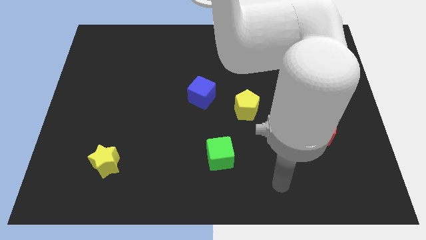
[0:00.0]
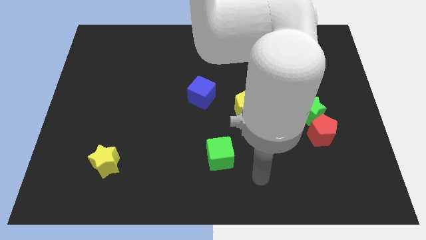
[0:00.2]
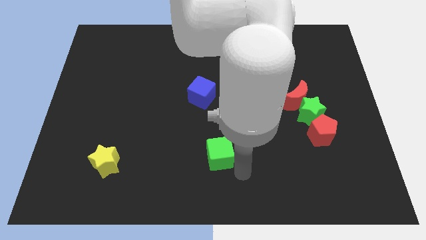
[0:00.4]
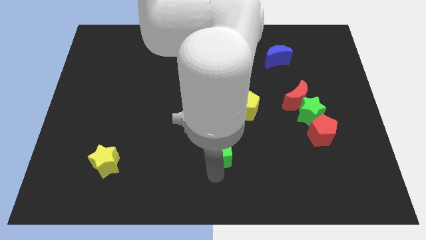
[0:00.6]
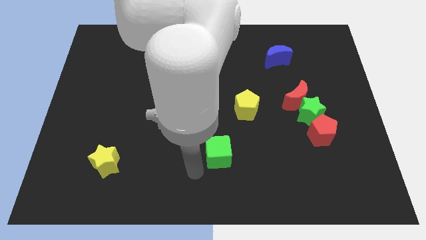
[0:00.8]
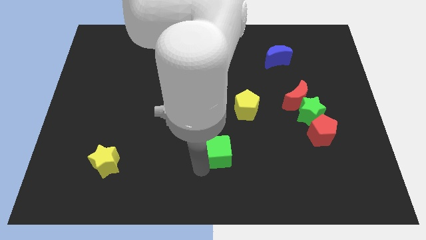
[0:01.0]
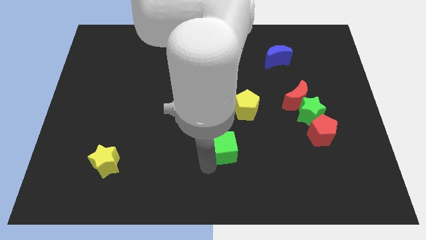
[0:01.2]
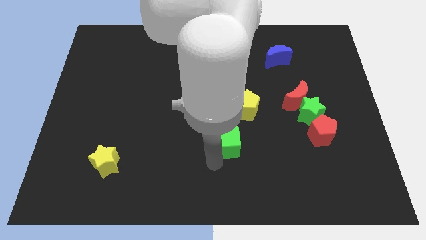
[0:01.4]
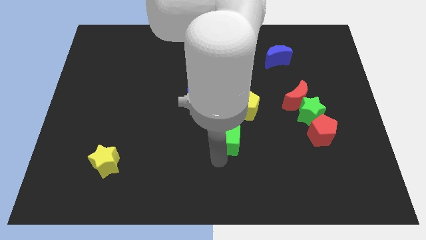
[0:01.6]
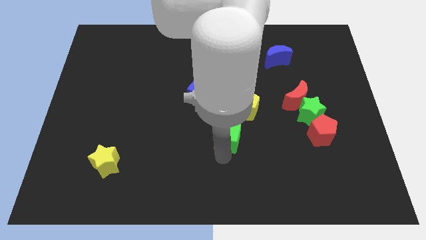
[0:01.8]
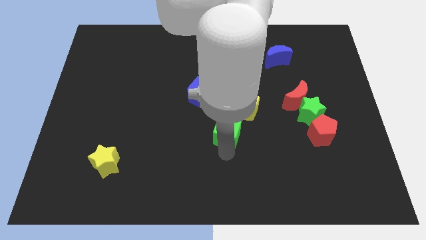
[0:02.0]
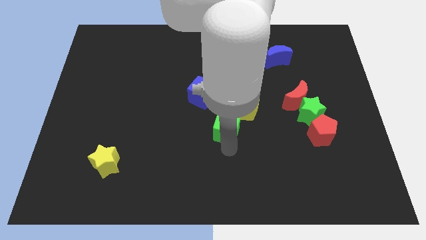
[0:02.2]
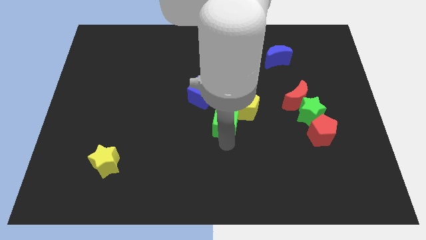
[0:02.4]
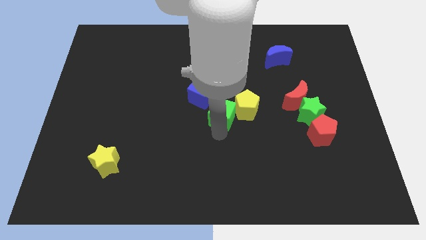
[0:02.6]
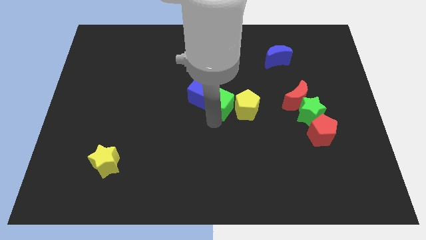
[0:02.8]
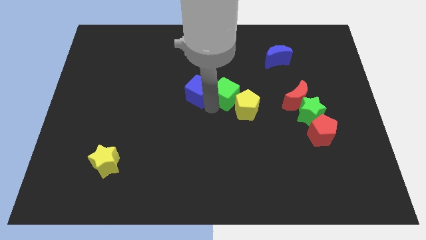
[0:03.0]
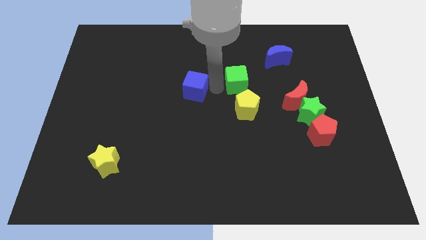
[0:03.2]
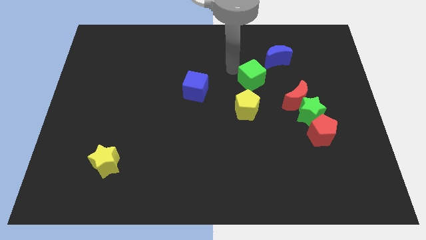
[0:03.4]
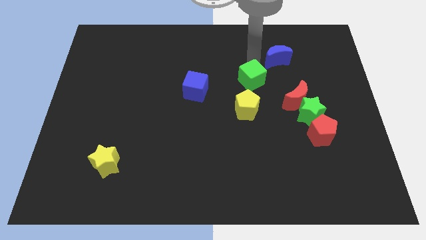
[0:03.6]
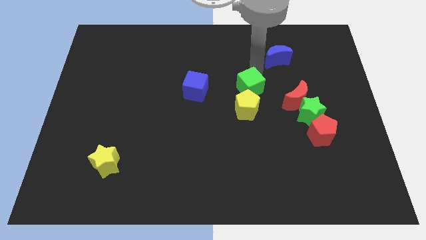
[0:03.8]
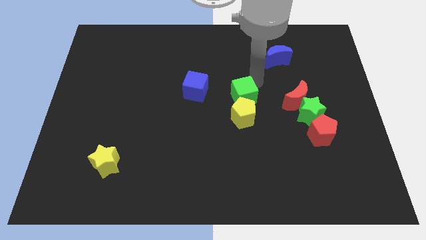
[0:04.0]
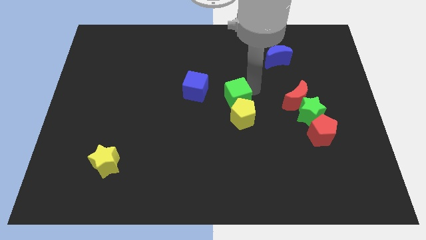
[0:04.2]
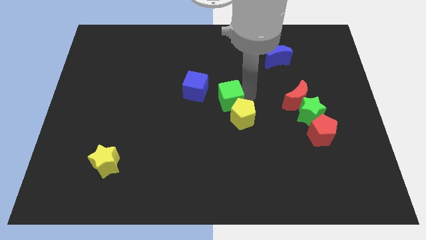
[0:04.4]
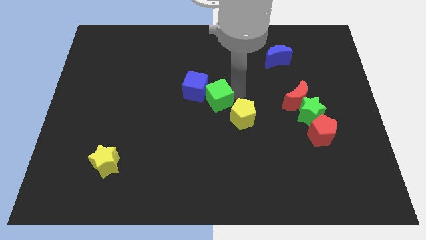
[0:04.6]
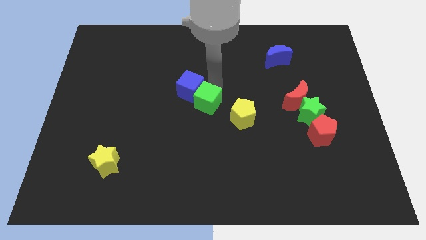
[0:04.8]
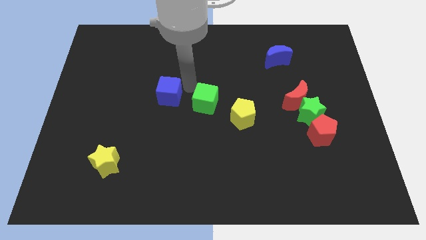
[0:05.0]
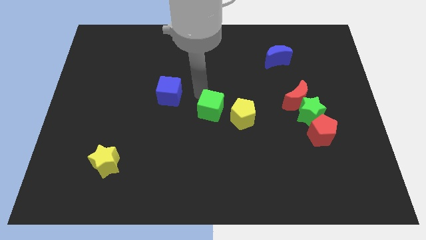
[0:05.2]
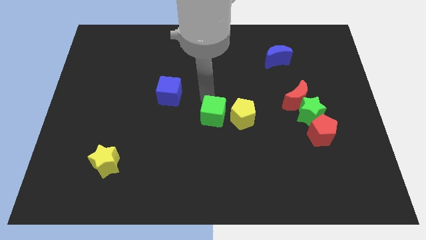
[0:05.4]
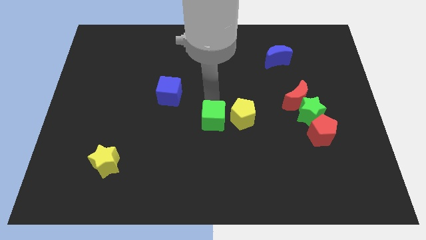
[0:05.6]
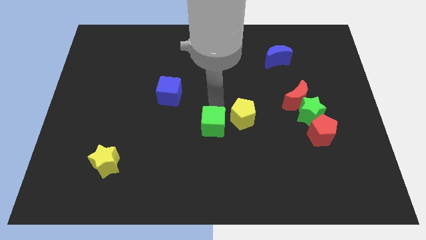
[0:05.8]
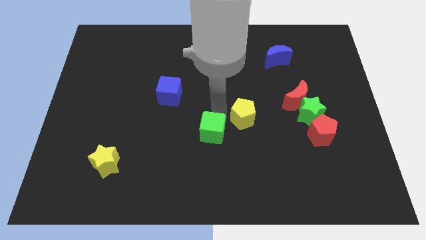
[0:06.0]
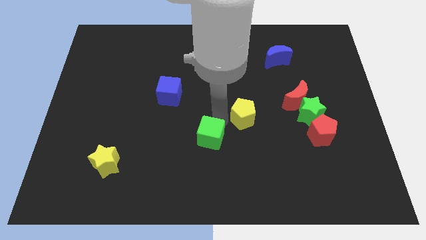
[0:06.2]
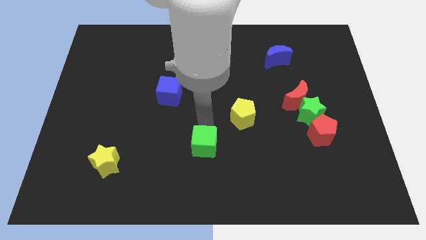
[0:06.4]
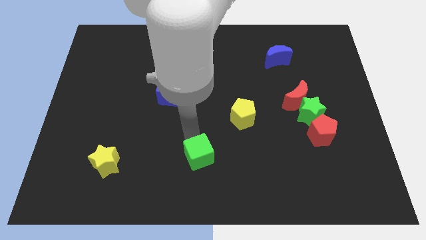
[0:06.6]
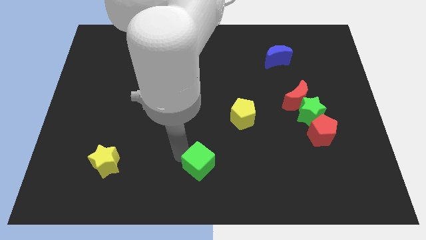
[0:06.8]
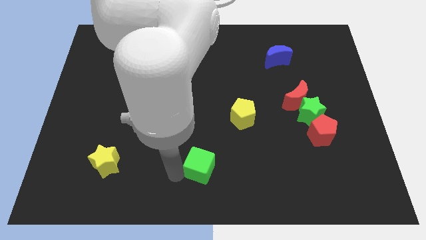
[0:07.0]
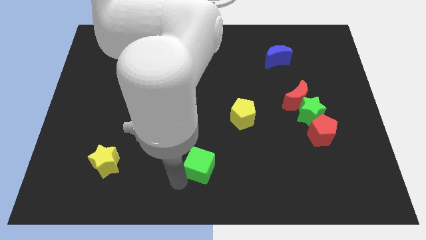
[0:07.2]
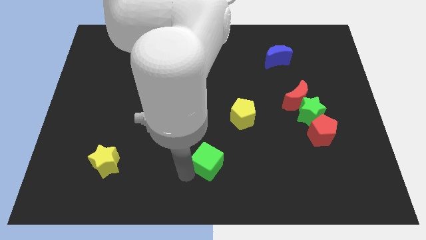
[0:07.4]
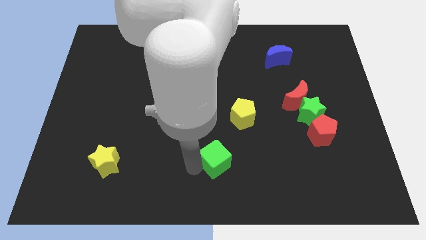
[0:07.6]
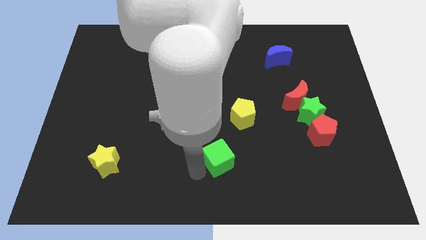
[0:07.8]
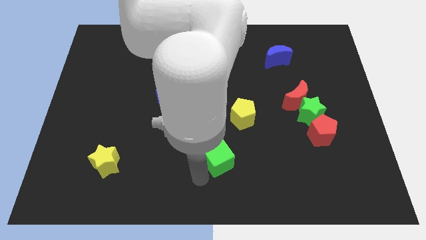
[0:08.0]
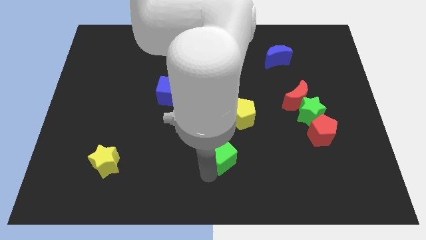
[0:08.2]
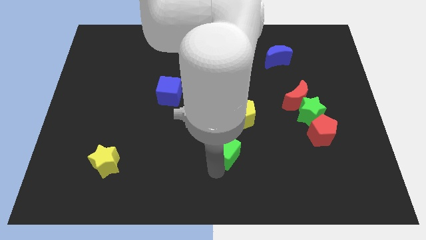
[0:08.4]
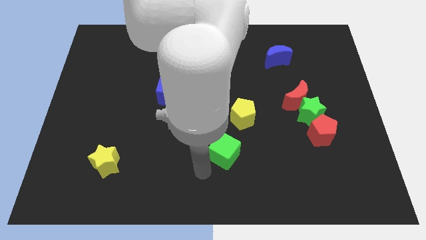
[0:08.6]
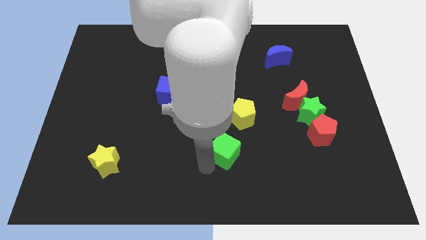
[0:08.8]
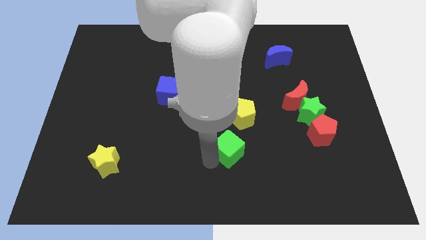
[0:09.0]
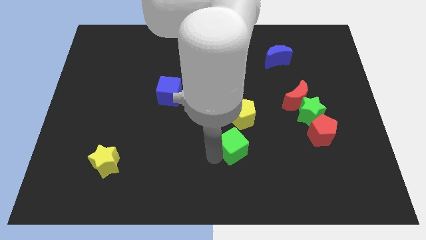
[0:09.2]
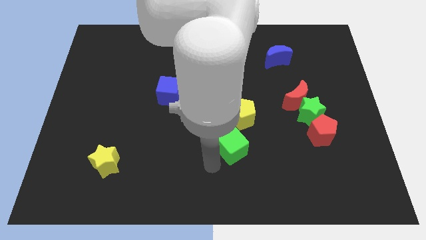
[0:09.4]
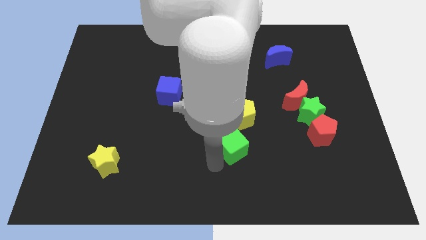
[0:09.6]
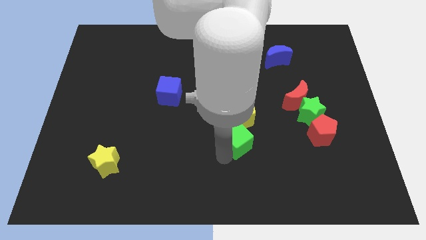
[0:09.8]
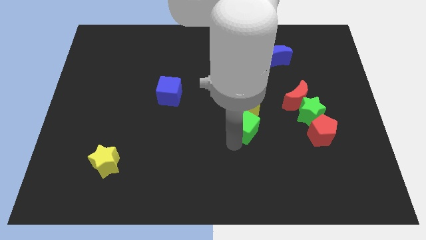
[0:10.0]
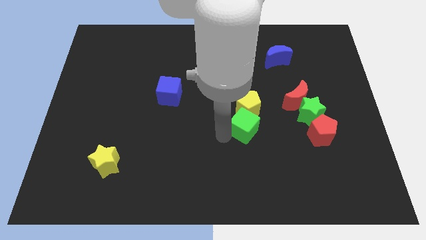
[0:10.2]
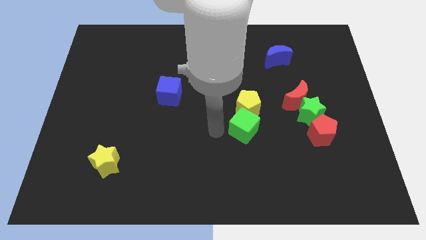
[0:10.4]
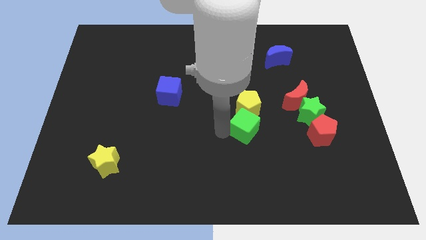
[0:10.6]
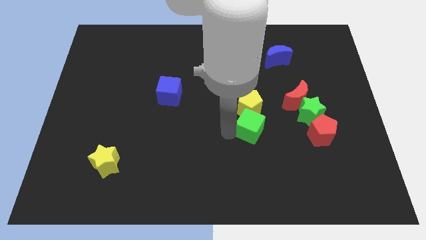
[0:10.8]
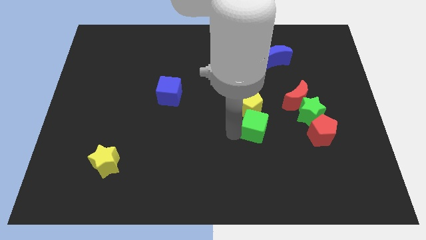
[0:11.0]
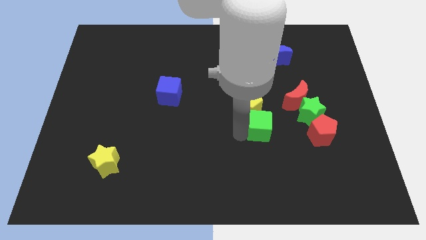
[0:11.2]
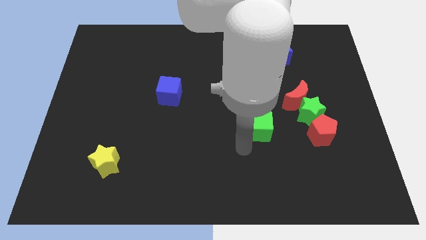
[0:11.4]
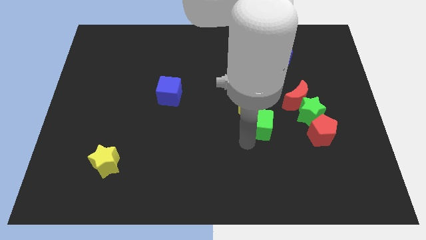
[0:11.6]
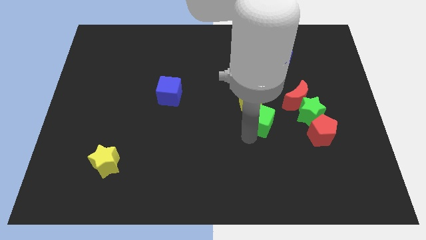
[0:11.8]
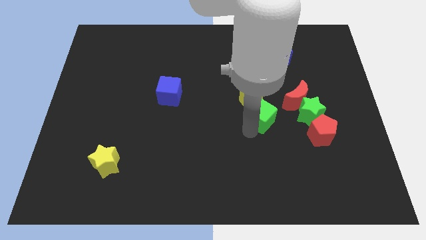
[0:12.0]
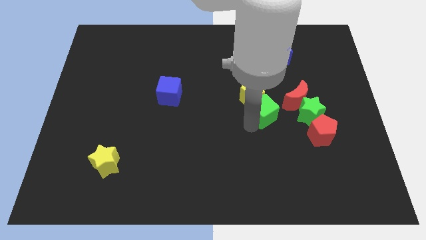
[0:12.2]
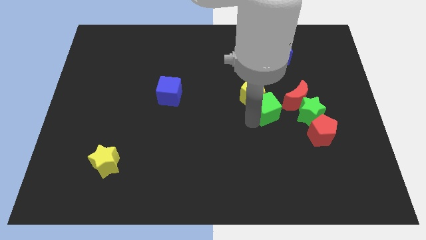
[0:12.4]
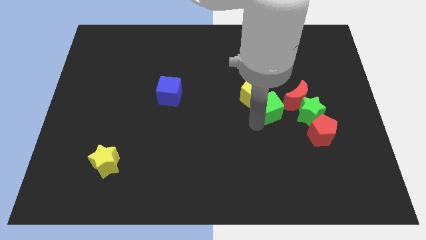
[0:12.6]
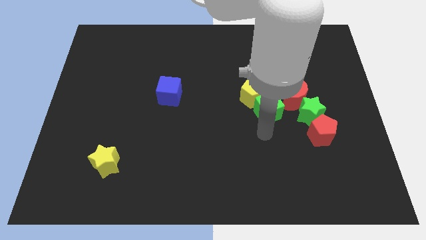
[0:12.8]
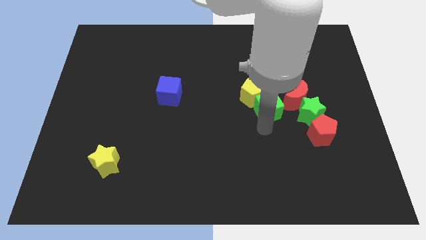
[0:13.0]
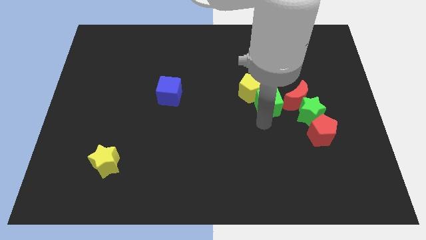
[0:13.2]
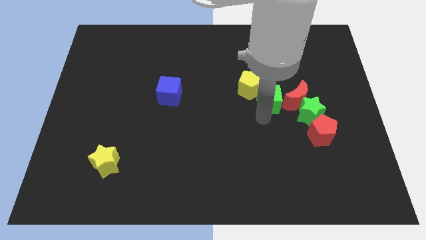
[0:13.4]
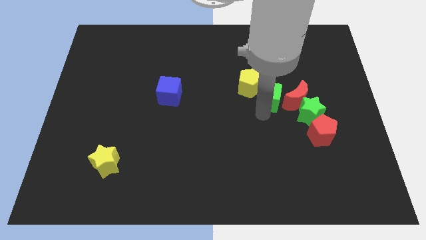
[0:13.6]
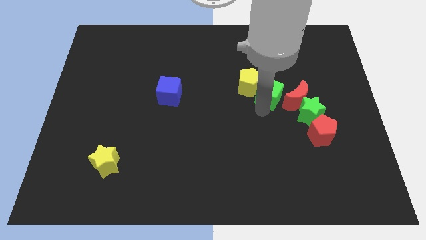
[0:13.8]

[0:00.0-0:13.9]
slide the green cube upwards and to the right diagonally

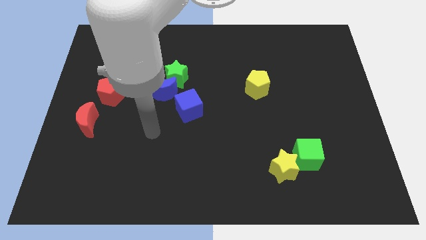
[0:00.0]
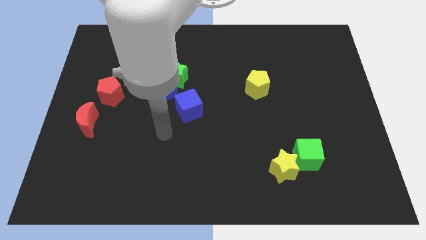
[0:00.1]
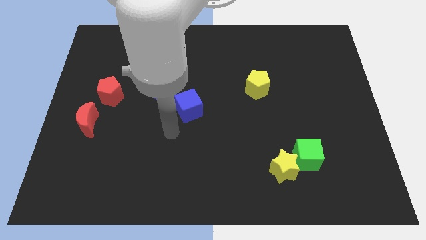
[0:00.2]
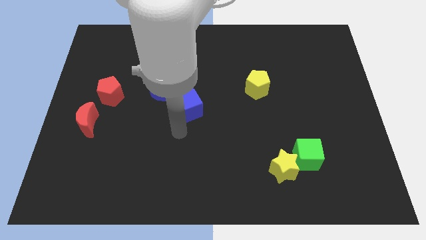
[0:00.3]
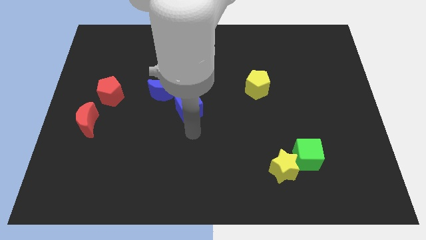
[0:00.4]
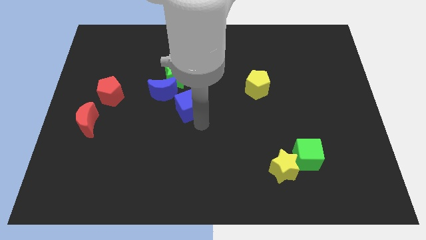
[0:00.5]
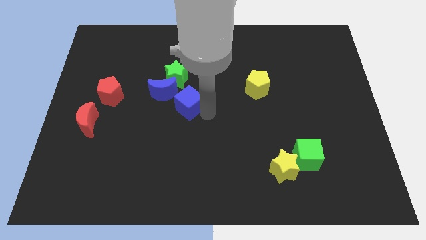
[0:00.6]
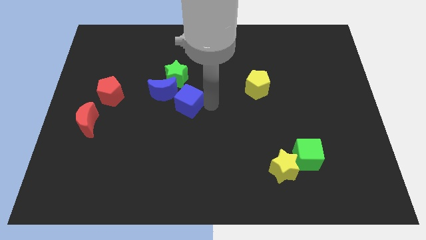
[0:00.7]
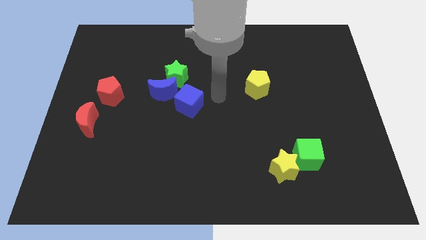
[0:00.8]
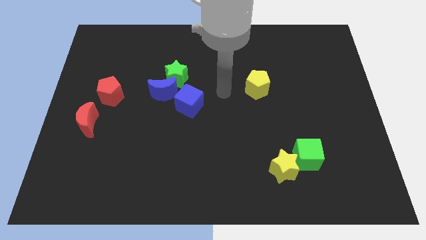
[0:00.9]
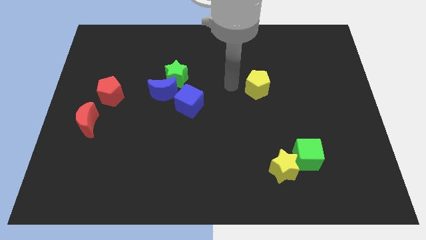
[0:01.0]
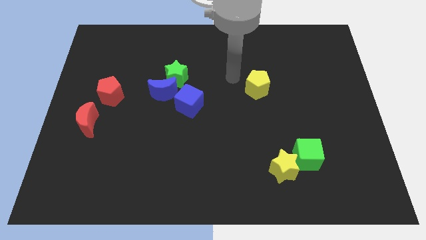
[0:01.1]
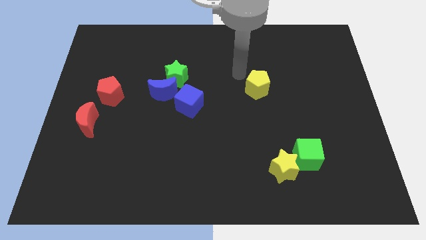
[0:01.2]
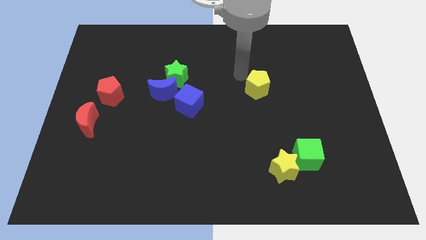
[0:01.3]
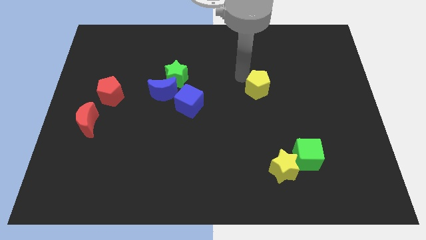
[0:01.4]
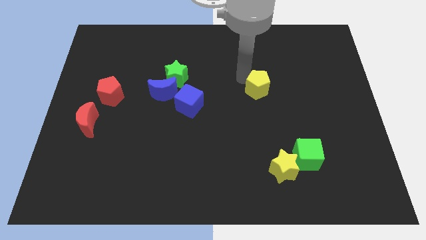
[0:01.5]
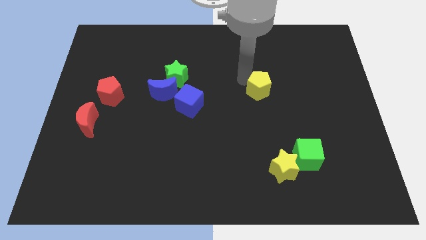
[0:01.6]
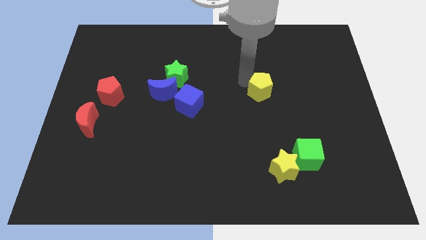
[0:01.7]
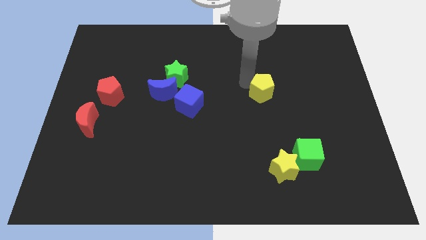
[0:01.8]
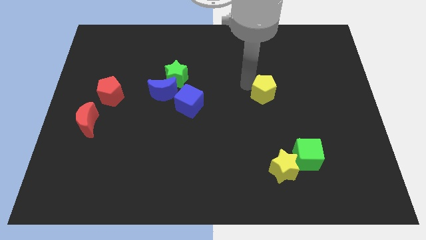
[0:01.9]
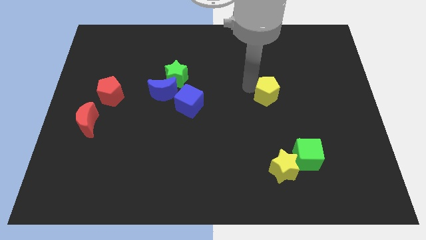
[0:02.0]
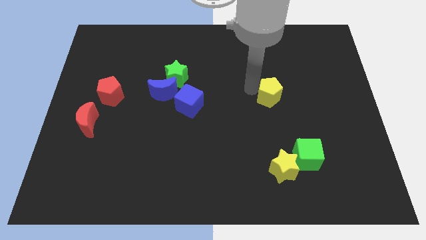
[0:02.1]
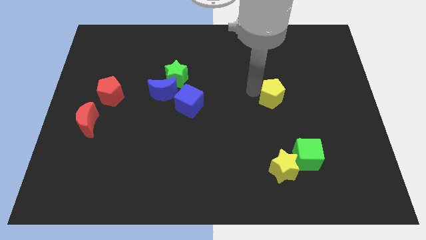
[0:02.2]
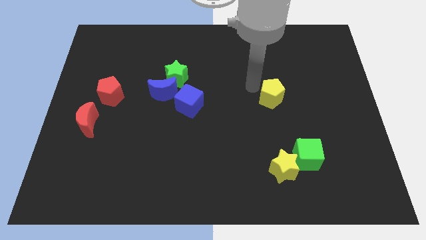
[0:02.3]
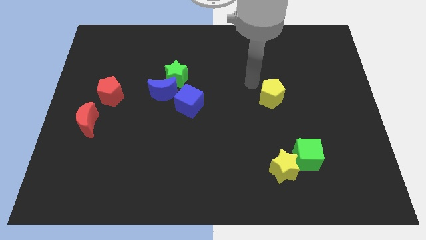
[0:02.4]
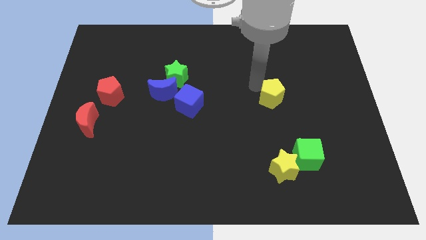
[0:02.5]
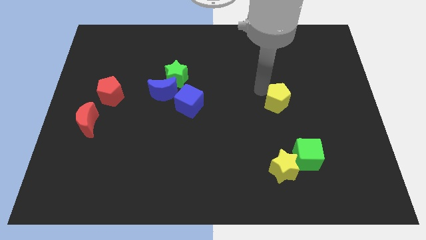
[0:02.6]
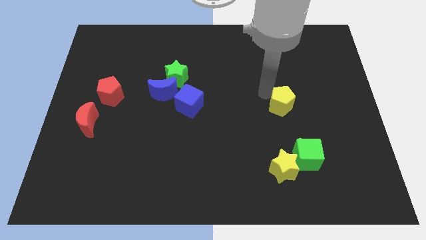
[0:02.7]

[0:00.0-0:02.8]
move the yellow pentagon a little bit downwards and to the right
